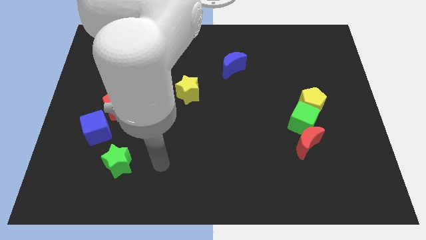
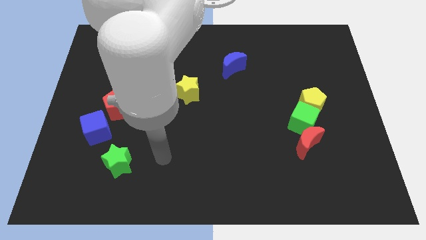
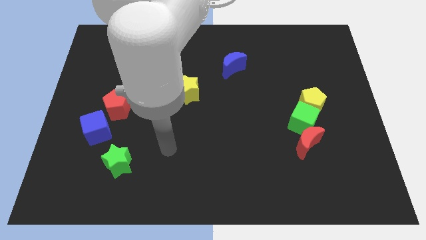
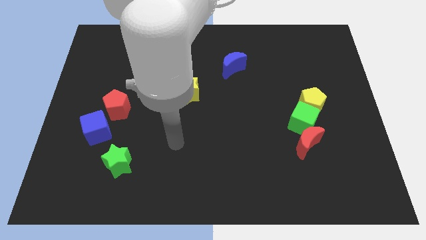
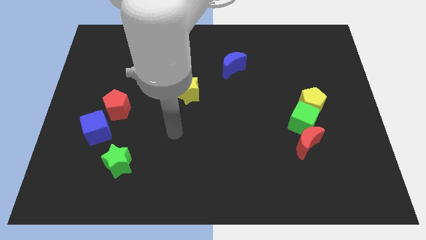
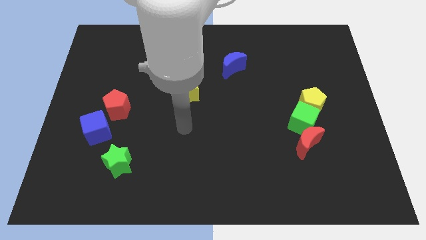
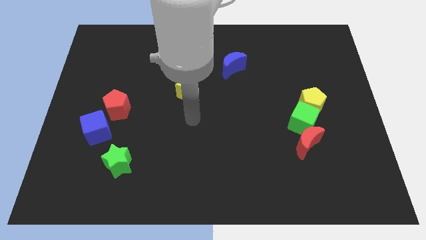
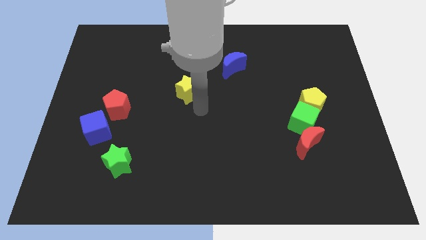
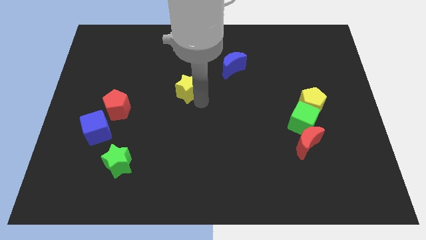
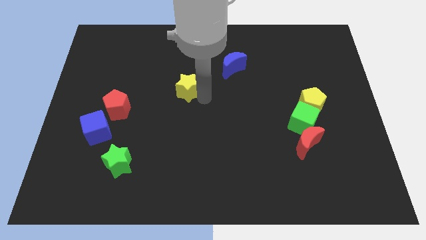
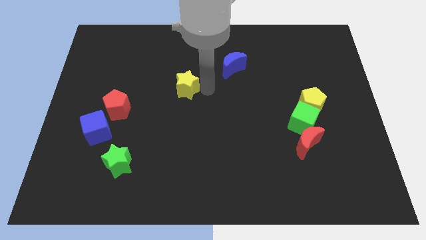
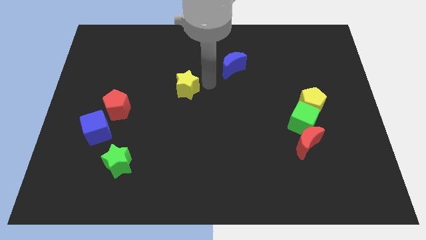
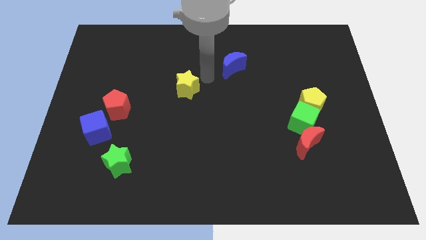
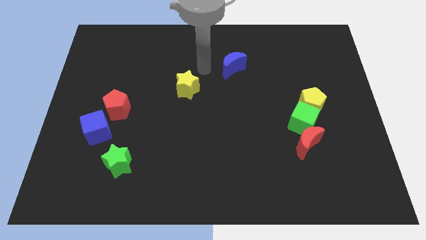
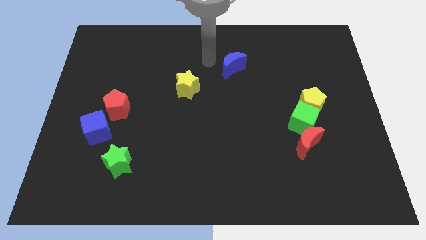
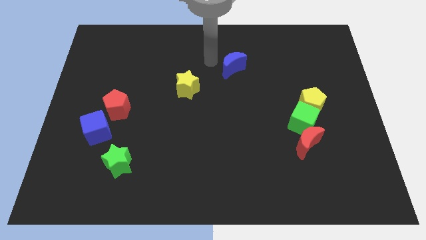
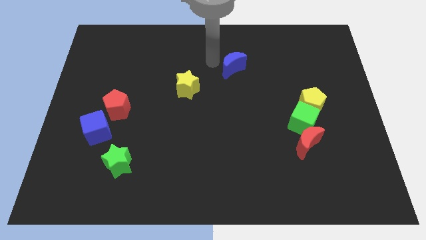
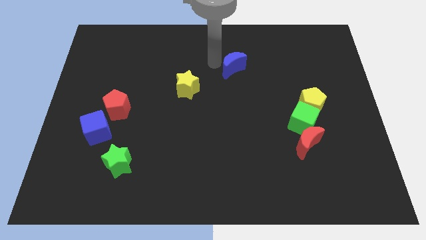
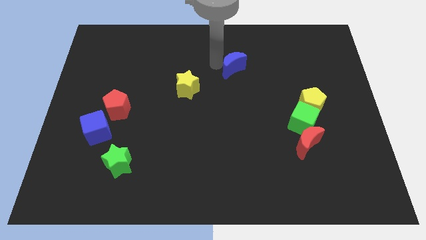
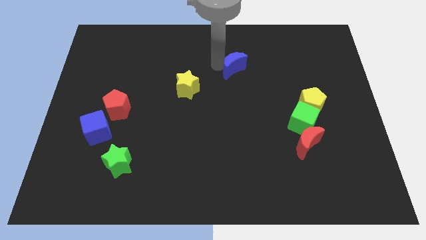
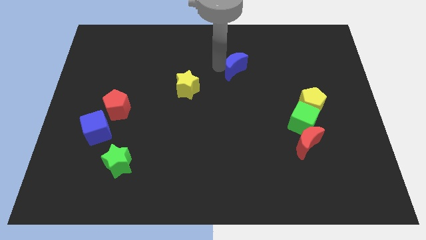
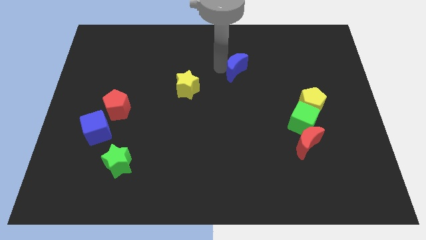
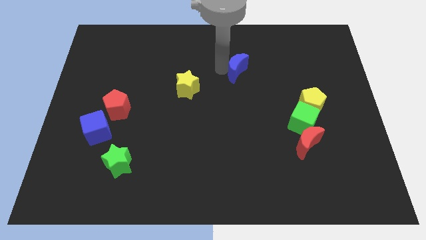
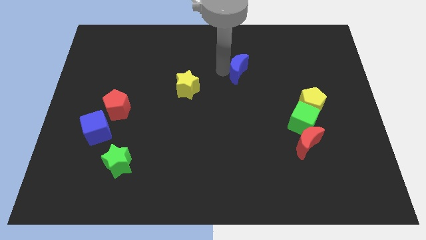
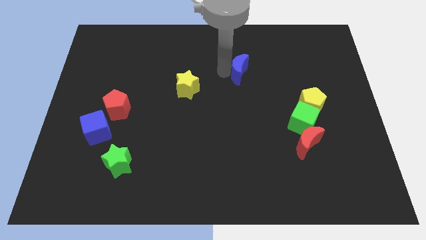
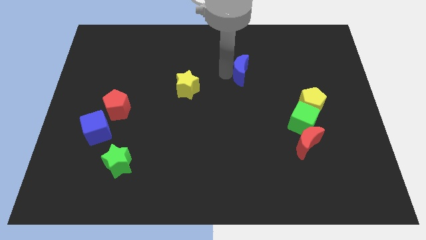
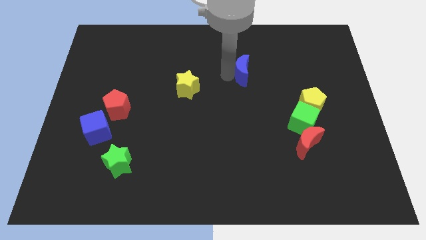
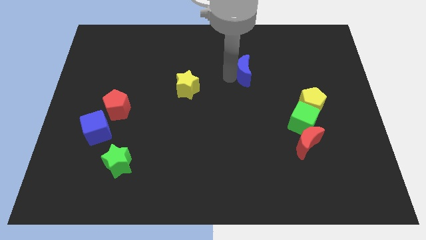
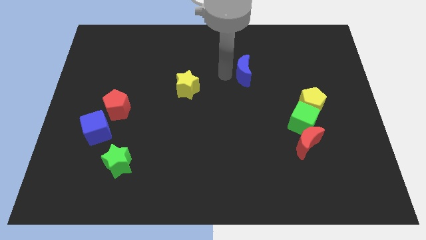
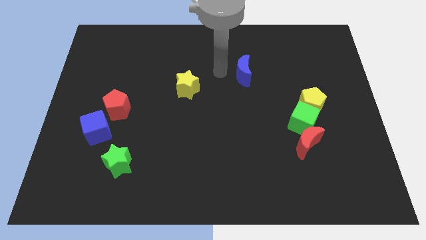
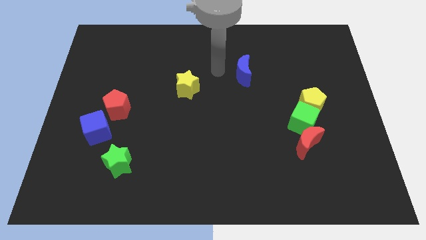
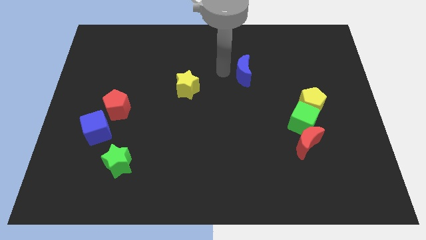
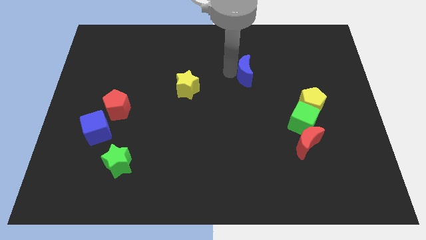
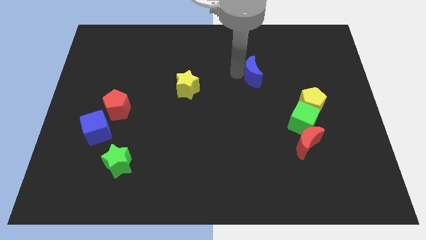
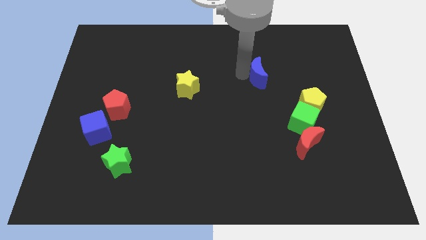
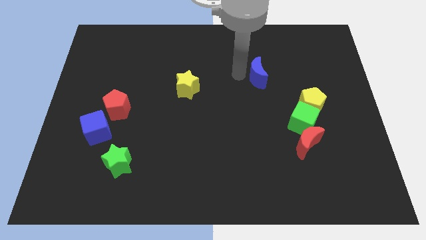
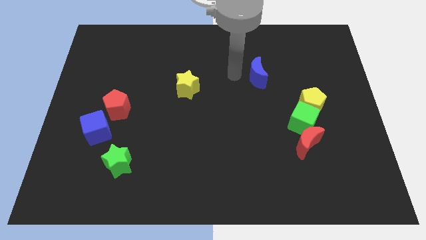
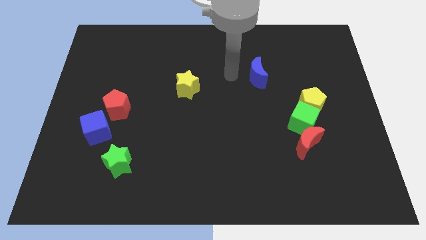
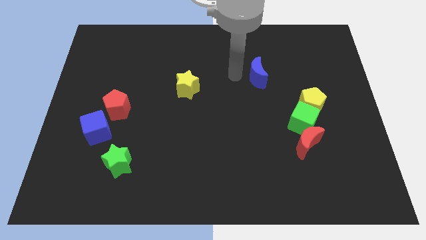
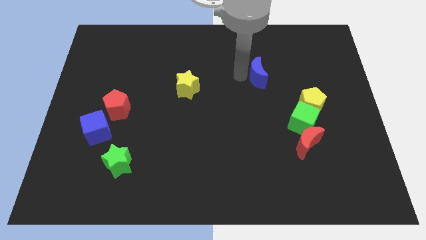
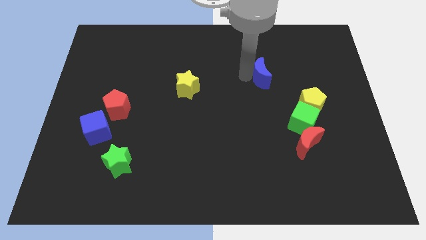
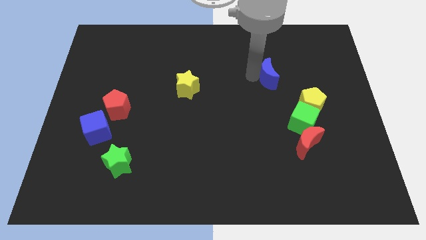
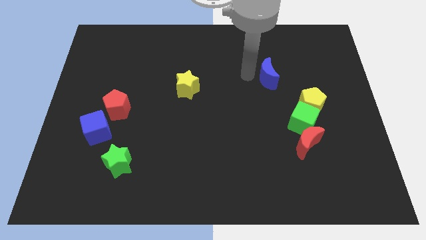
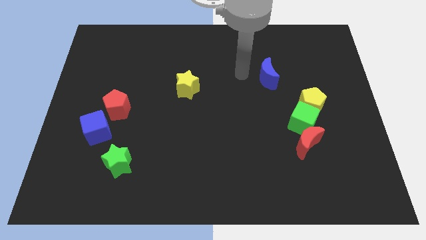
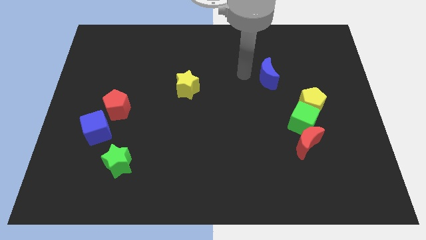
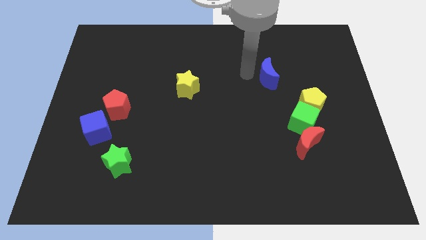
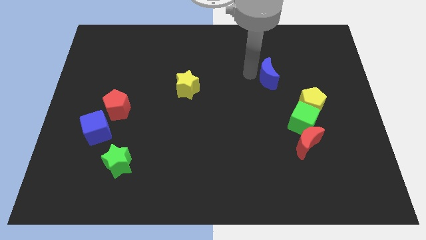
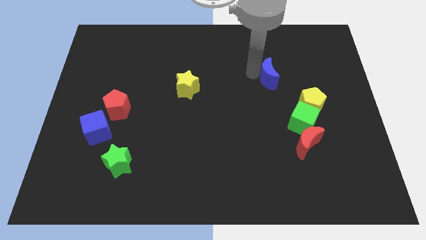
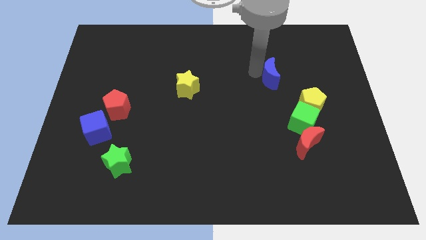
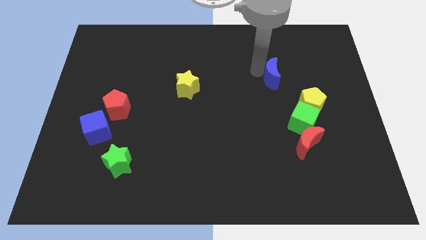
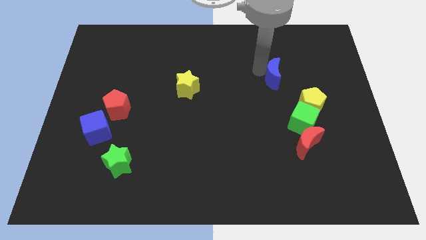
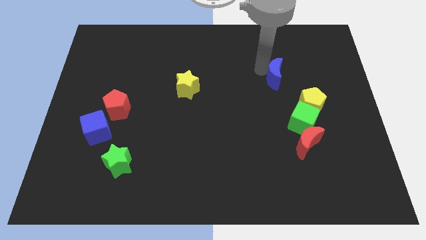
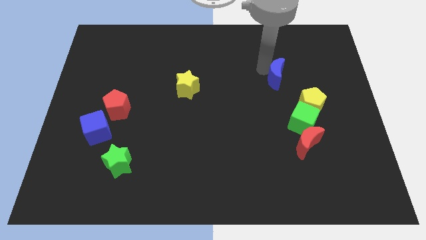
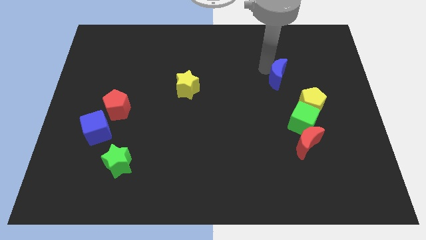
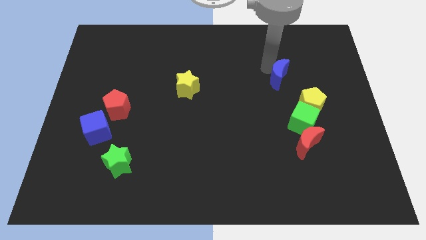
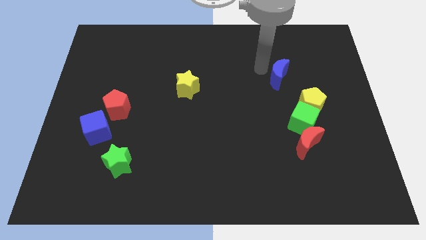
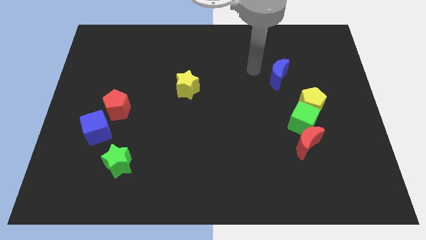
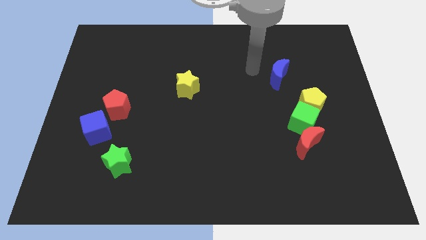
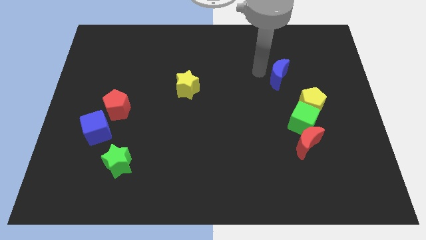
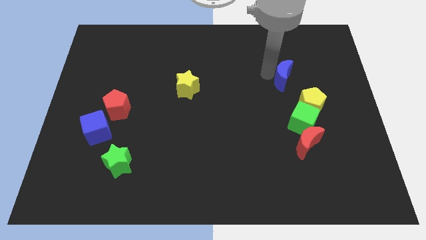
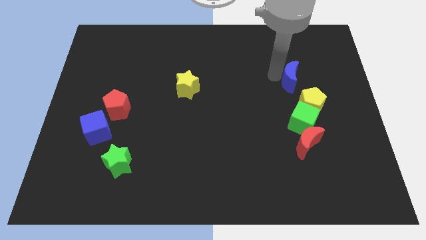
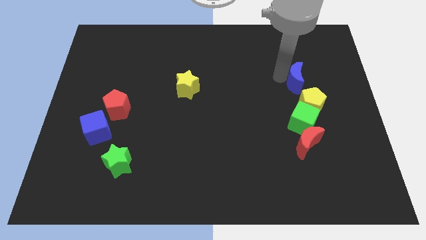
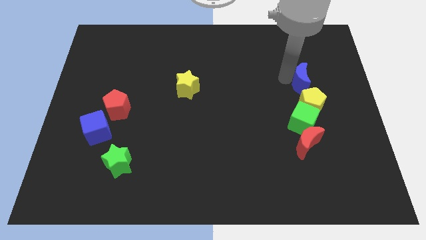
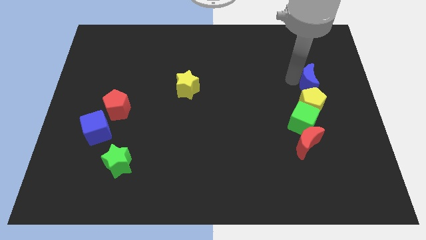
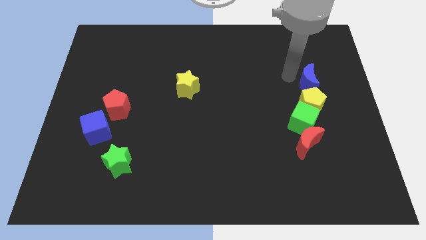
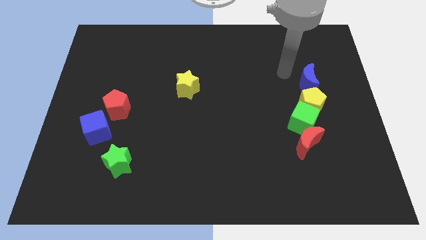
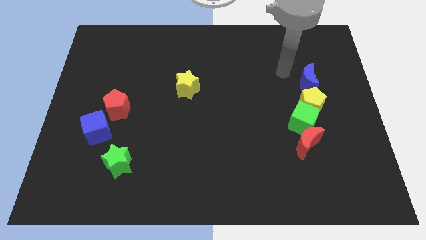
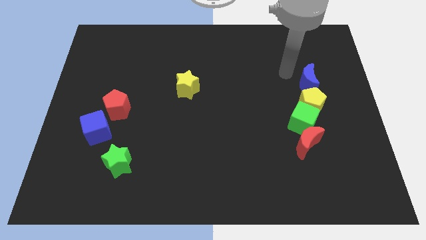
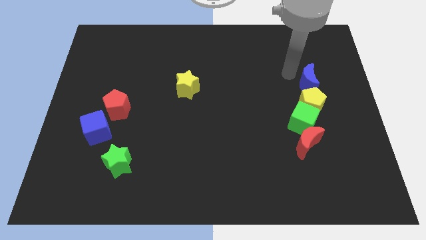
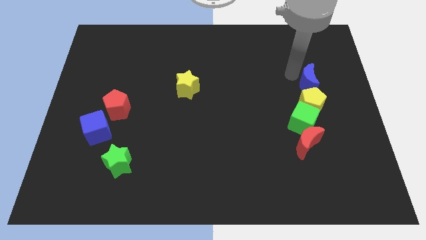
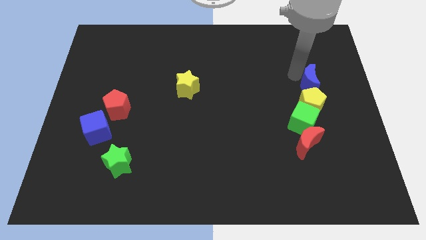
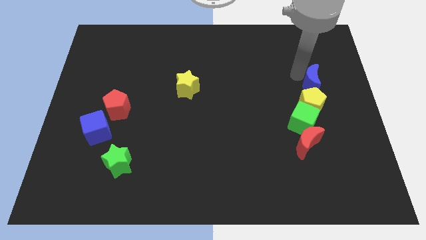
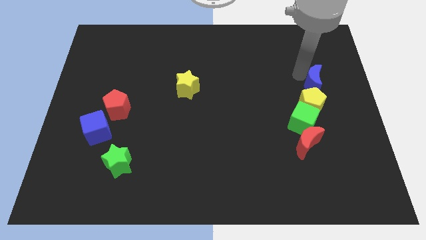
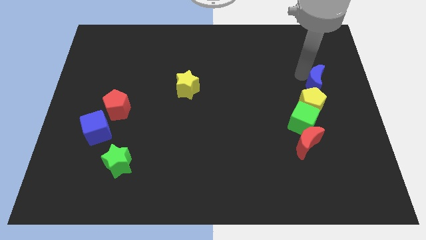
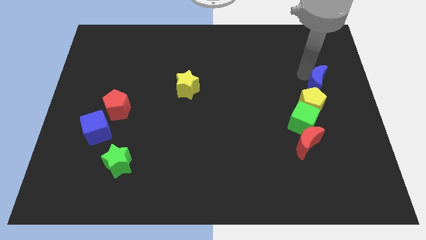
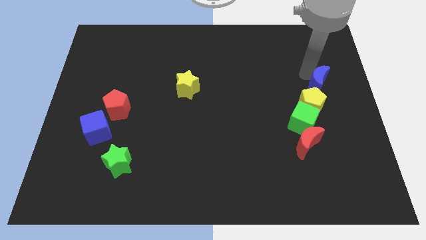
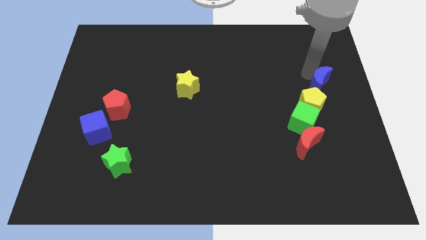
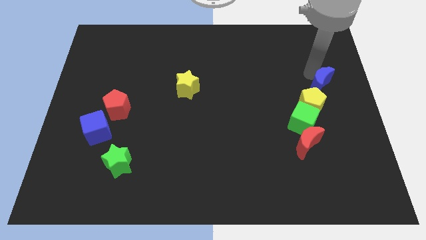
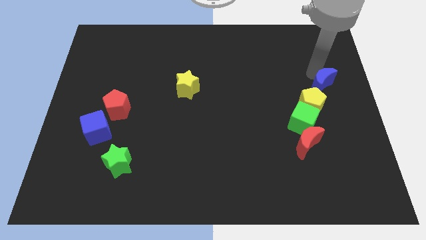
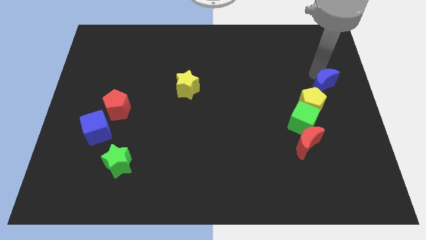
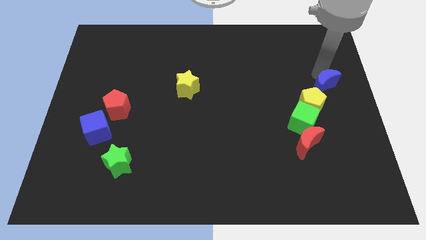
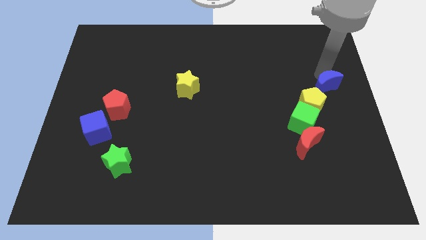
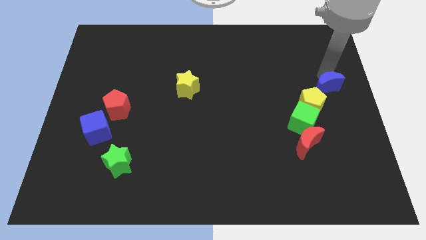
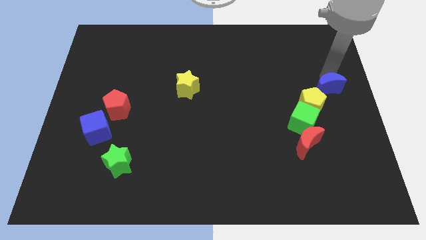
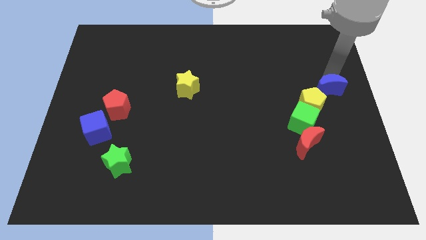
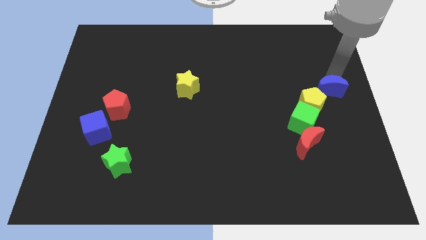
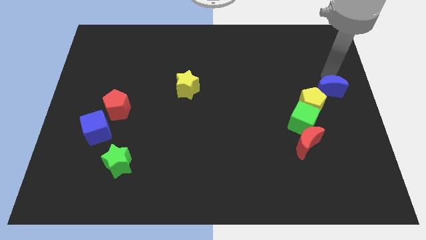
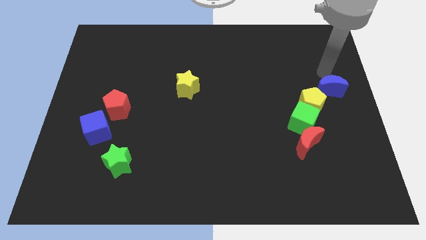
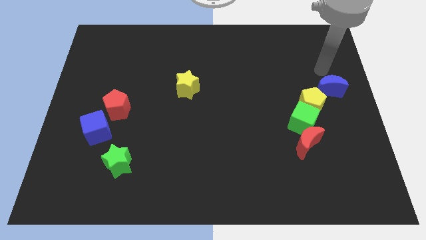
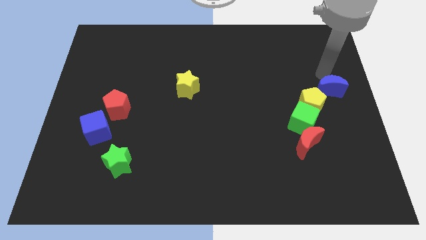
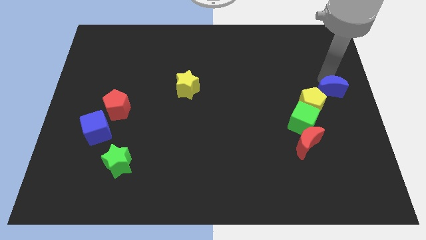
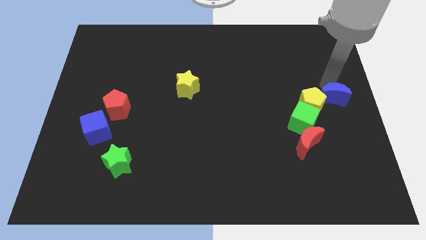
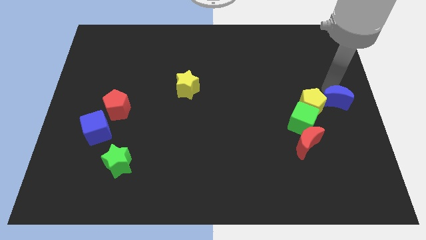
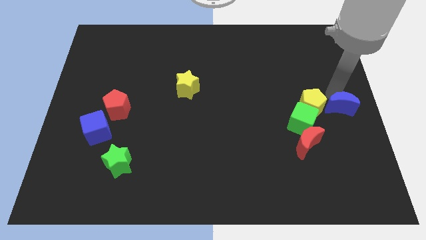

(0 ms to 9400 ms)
push the blue moon to the bottom right side of the yellow pentagon
